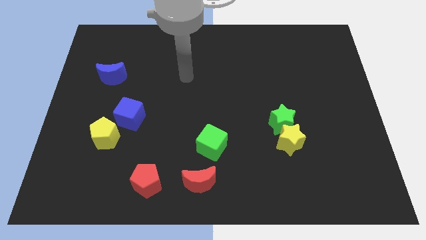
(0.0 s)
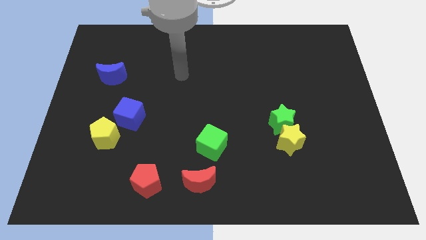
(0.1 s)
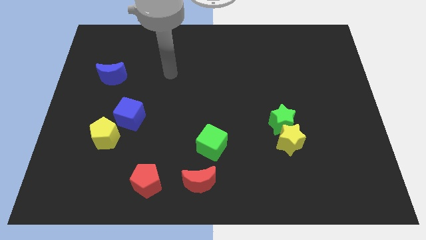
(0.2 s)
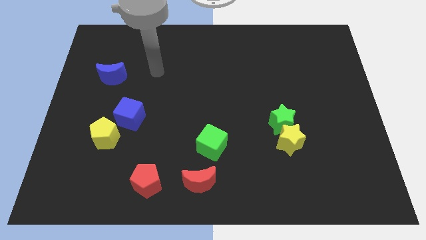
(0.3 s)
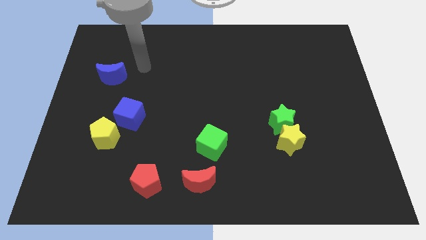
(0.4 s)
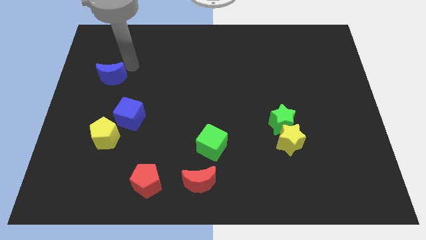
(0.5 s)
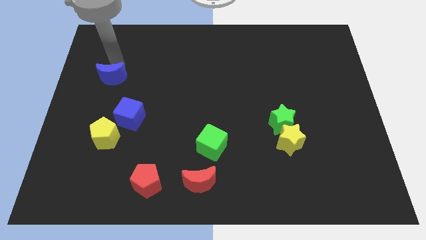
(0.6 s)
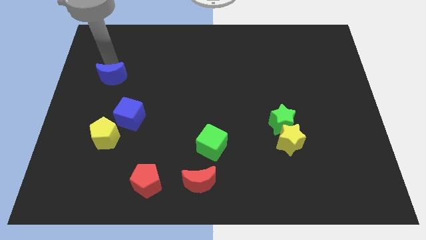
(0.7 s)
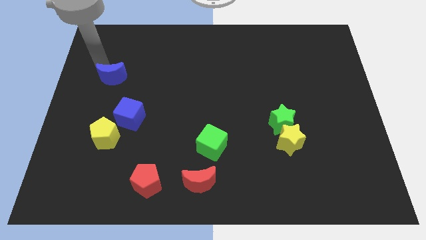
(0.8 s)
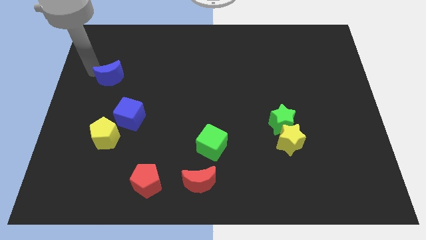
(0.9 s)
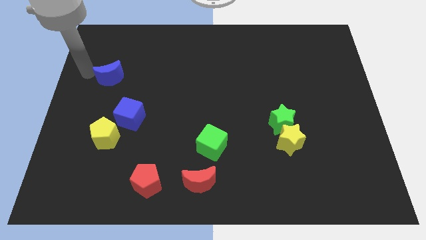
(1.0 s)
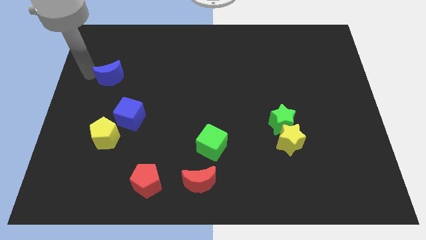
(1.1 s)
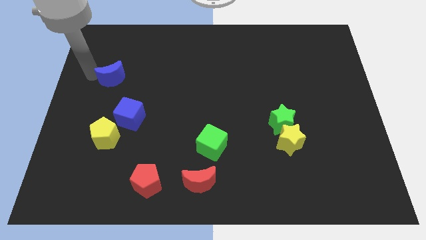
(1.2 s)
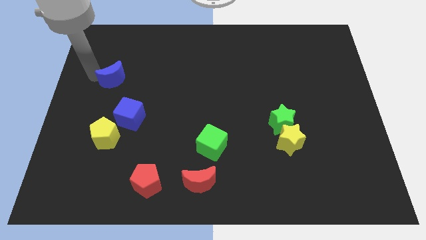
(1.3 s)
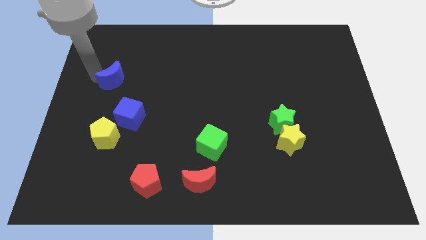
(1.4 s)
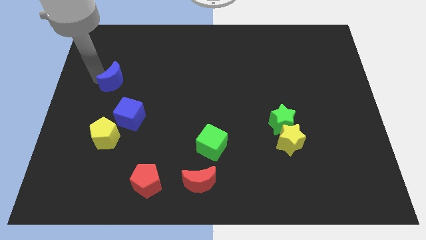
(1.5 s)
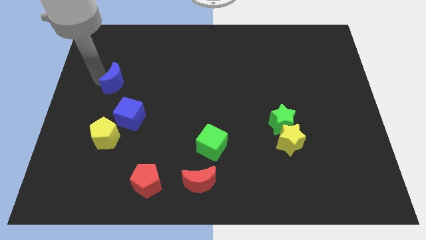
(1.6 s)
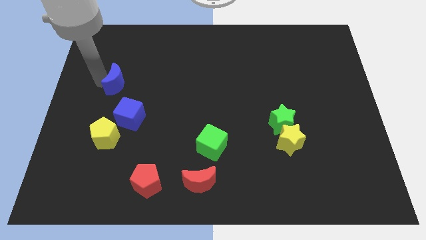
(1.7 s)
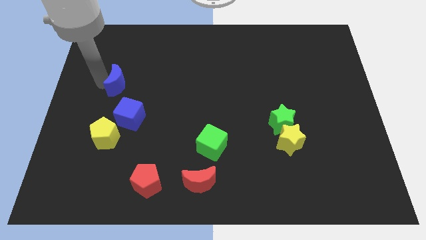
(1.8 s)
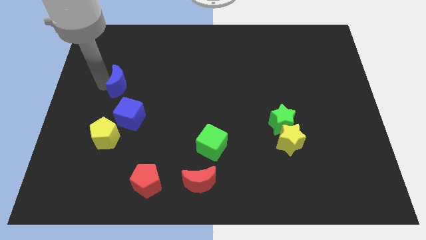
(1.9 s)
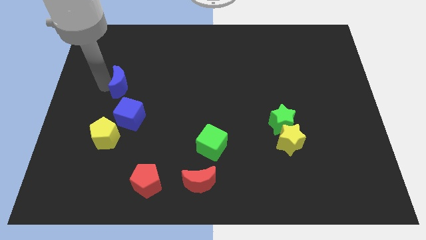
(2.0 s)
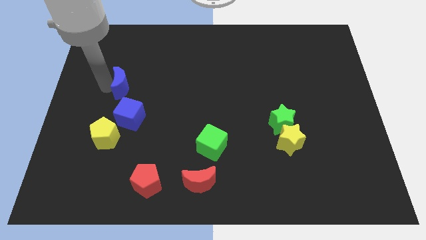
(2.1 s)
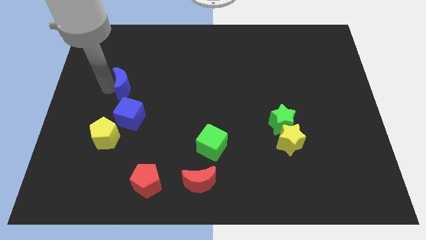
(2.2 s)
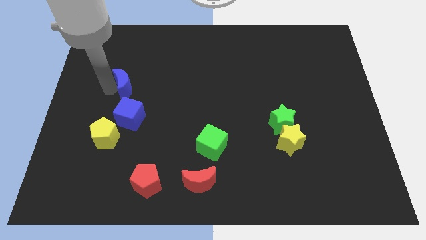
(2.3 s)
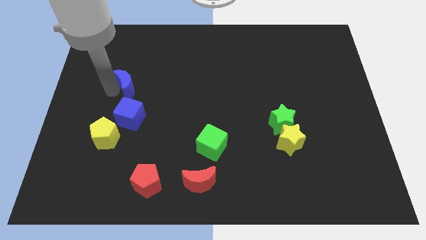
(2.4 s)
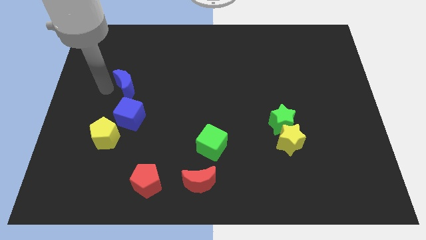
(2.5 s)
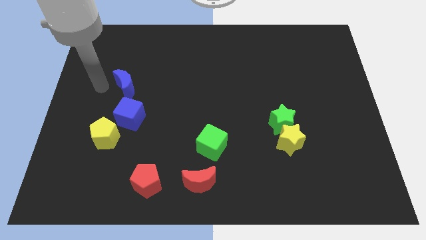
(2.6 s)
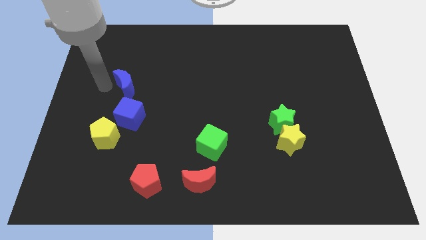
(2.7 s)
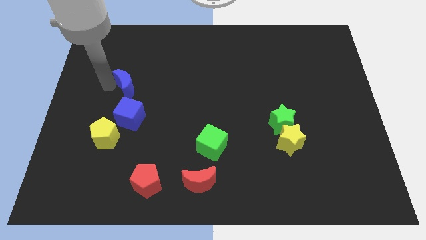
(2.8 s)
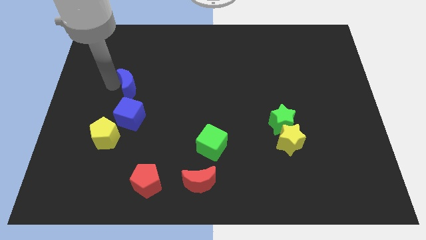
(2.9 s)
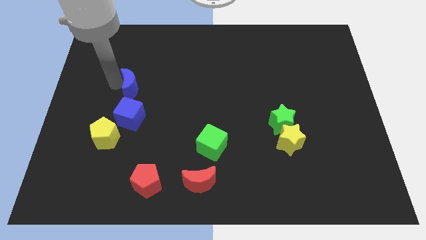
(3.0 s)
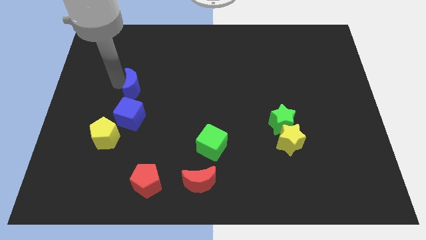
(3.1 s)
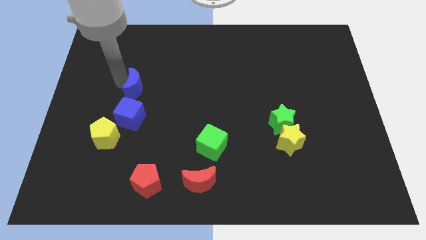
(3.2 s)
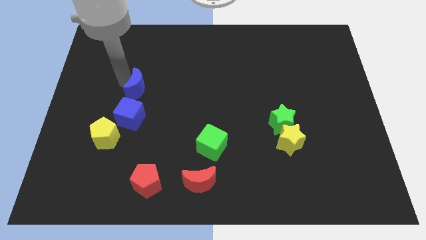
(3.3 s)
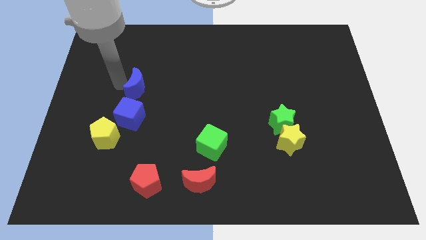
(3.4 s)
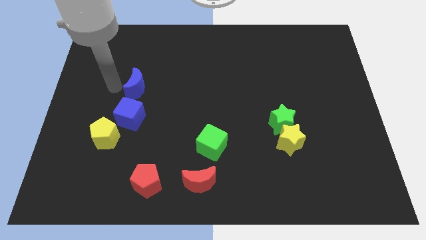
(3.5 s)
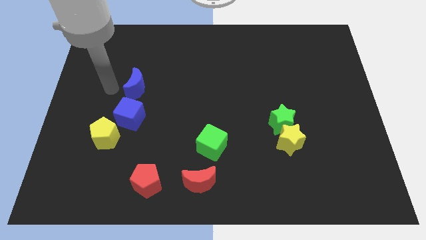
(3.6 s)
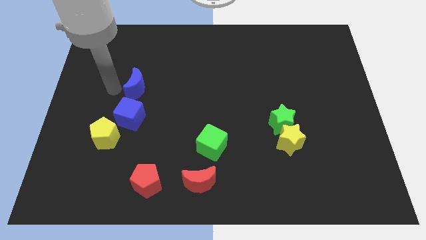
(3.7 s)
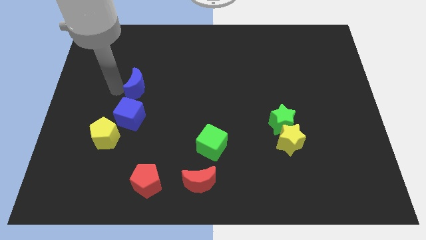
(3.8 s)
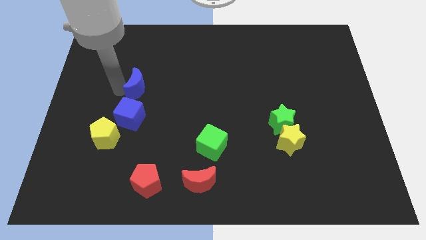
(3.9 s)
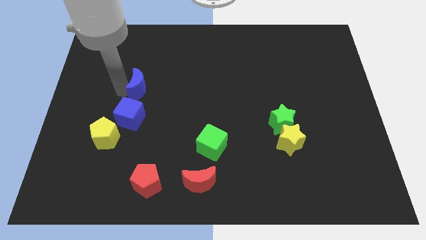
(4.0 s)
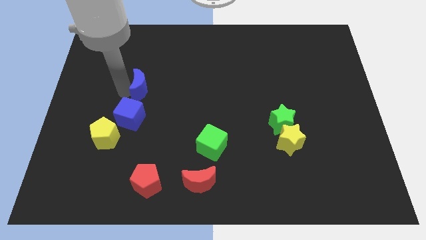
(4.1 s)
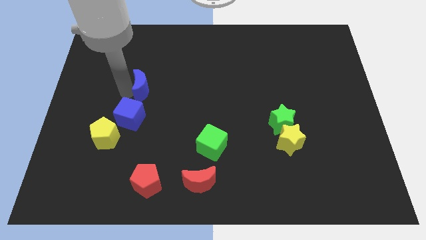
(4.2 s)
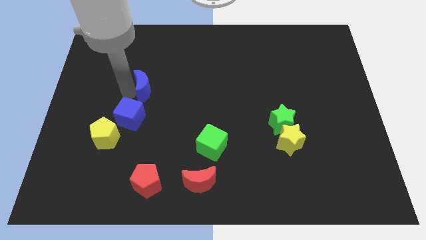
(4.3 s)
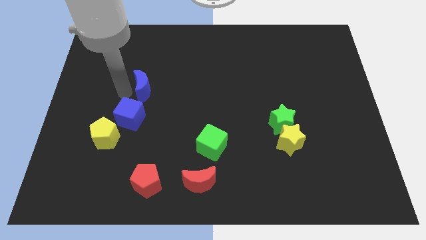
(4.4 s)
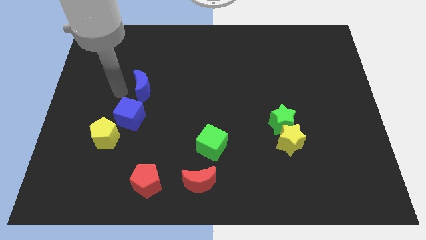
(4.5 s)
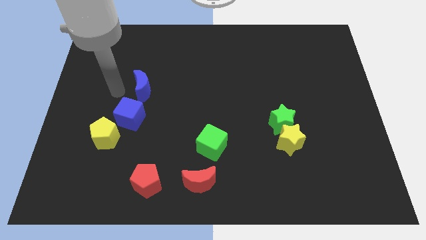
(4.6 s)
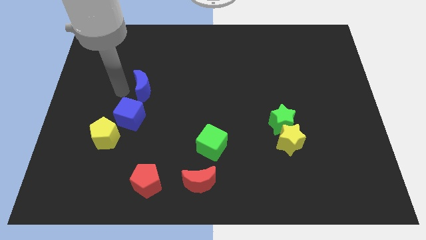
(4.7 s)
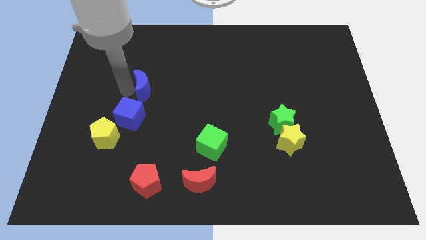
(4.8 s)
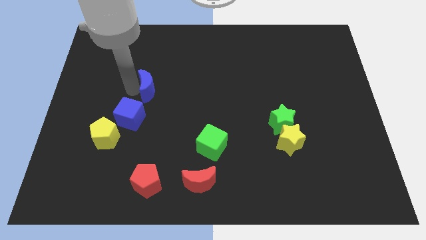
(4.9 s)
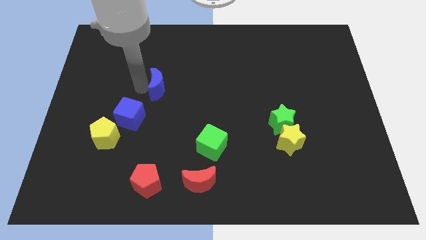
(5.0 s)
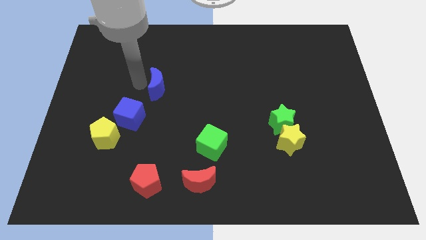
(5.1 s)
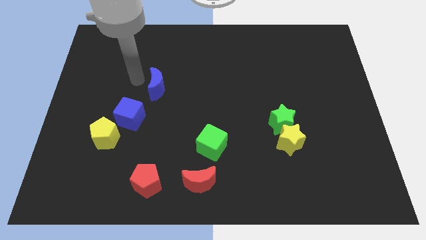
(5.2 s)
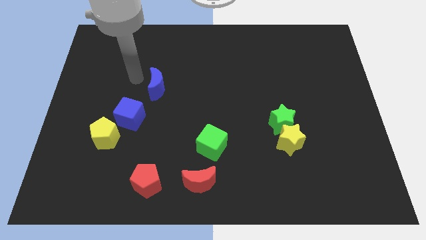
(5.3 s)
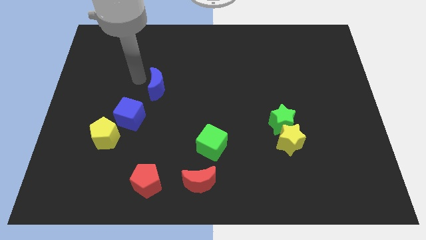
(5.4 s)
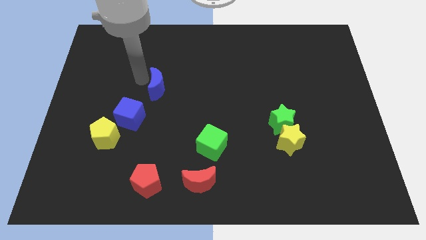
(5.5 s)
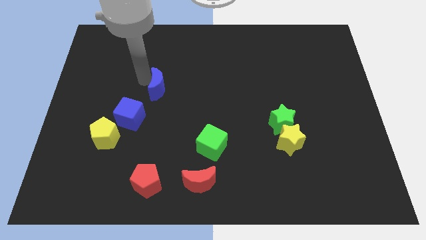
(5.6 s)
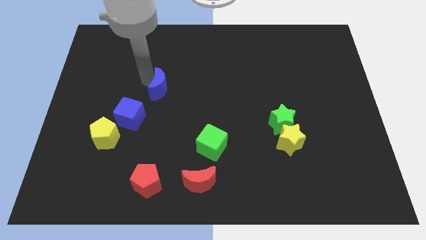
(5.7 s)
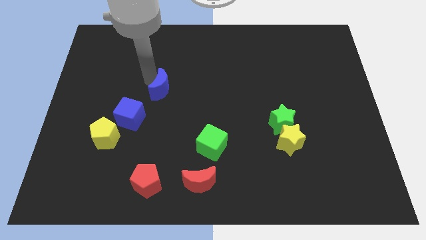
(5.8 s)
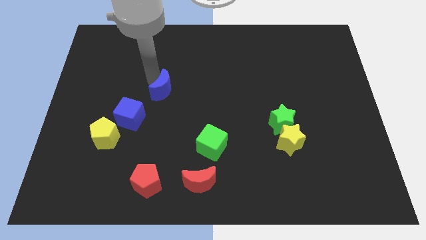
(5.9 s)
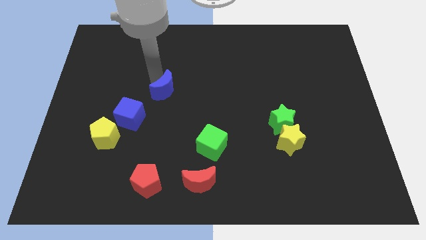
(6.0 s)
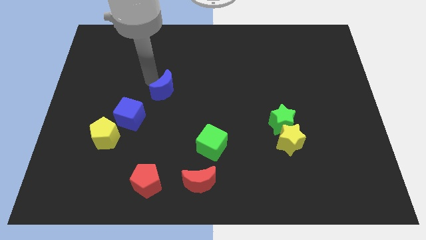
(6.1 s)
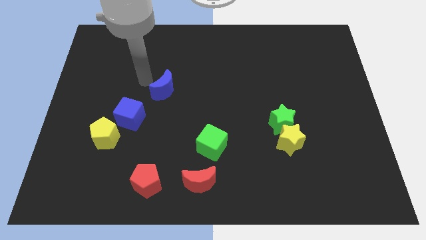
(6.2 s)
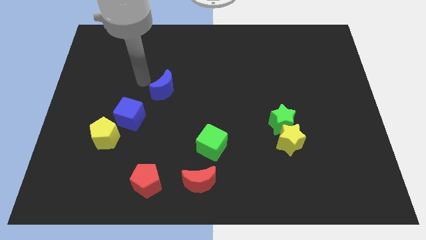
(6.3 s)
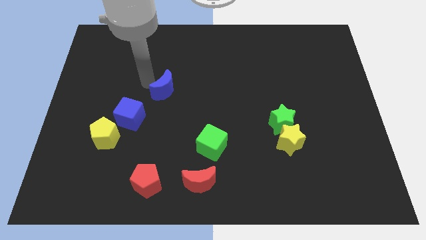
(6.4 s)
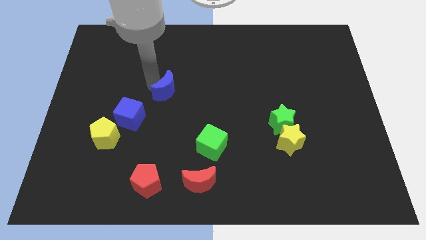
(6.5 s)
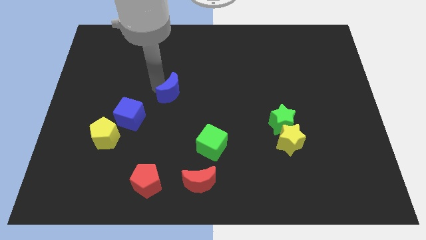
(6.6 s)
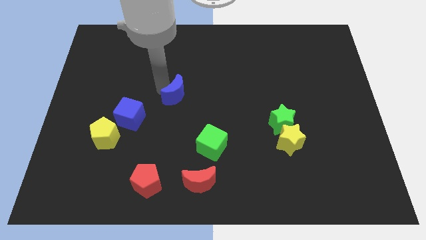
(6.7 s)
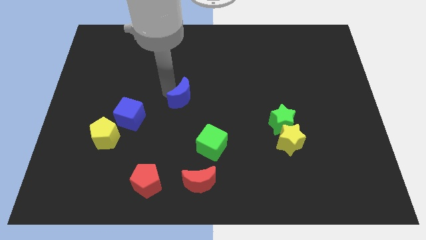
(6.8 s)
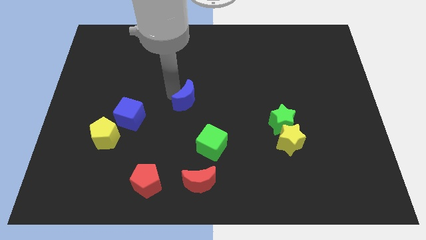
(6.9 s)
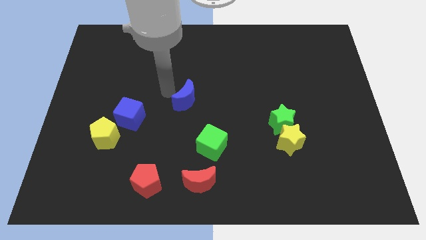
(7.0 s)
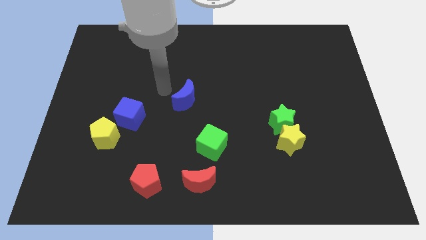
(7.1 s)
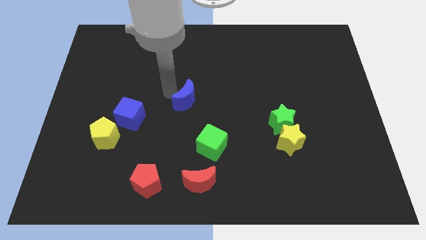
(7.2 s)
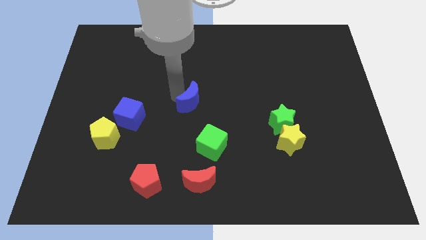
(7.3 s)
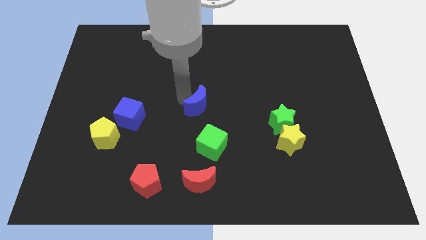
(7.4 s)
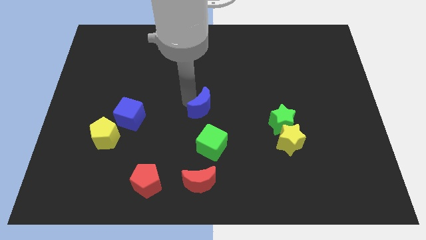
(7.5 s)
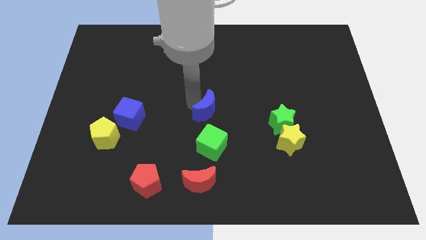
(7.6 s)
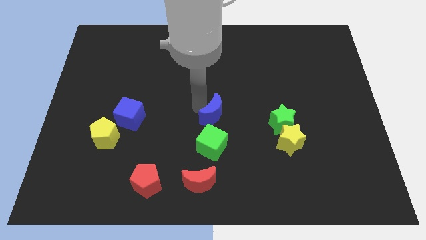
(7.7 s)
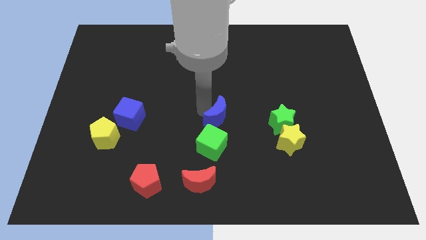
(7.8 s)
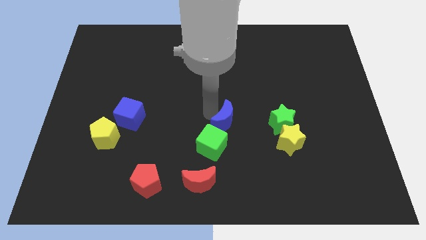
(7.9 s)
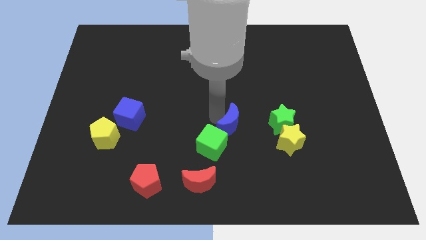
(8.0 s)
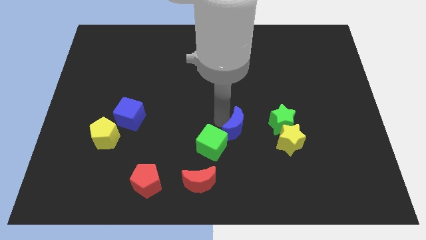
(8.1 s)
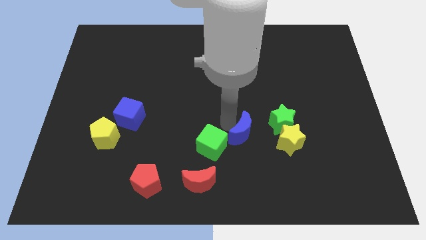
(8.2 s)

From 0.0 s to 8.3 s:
put the blue moon to the bottom left of the green star
